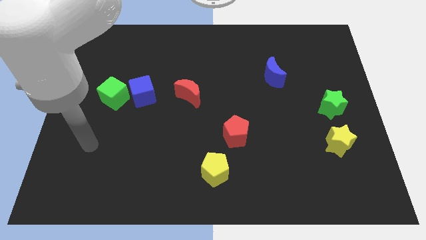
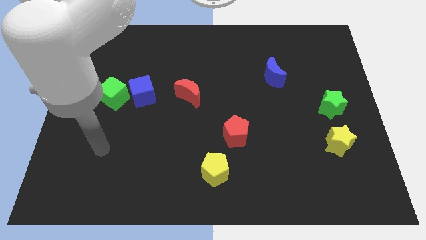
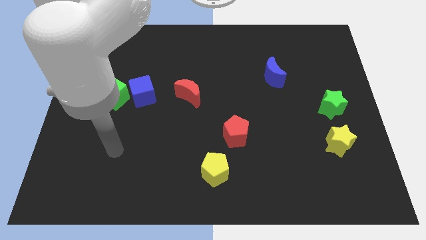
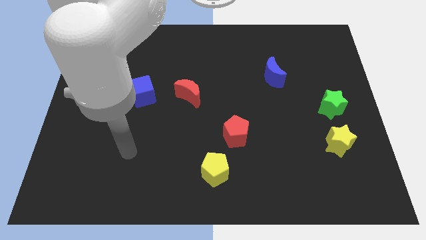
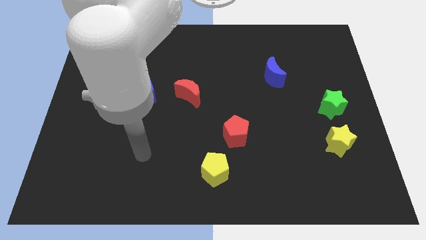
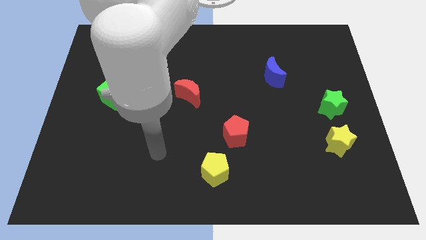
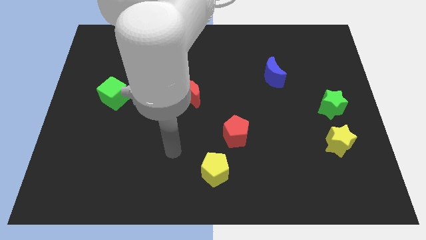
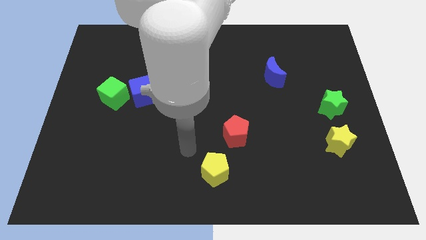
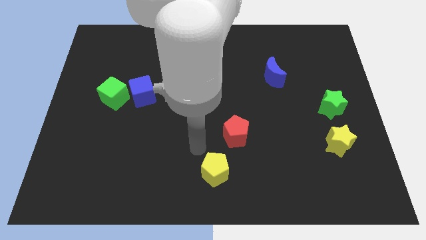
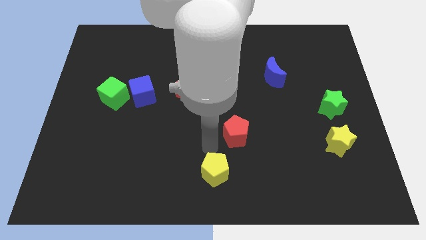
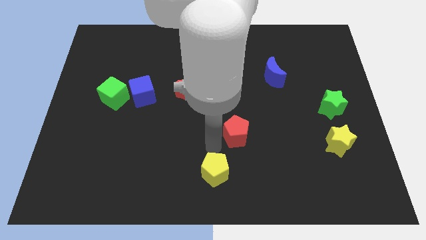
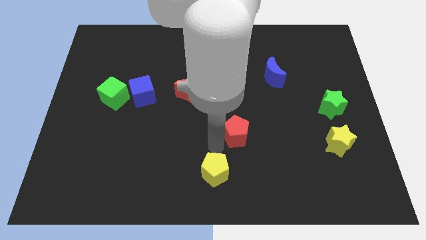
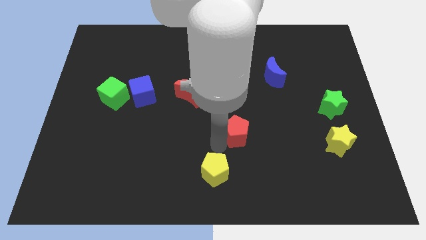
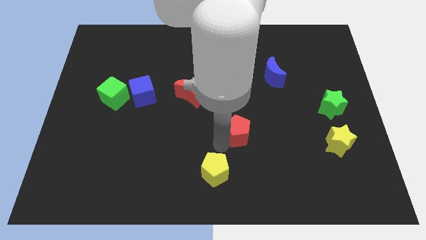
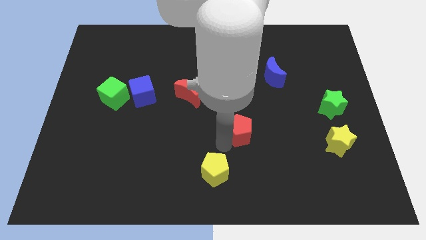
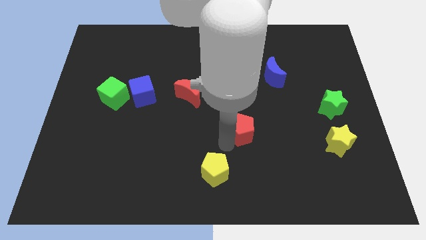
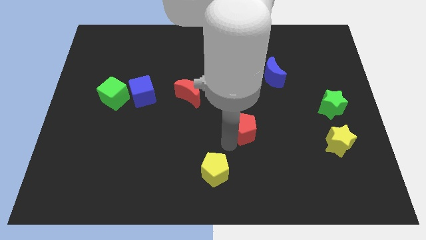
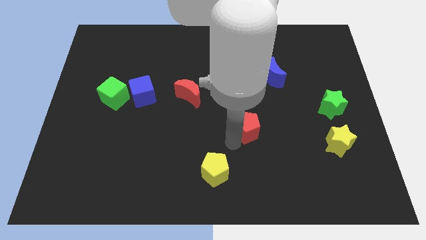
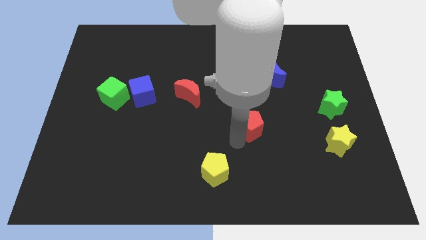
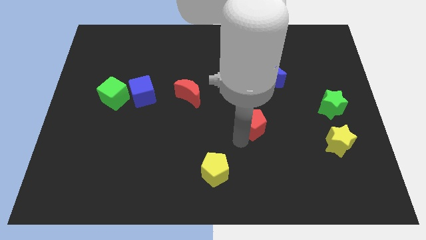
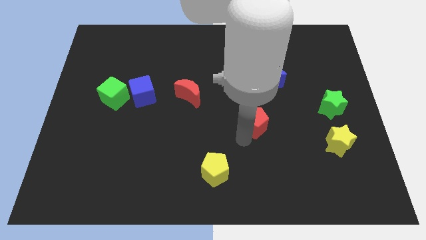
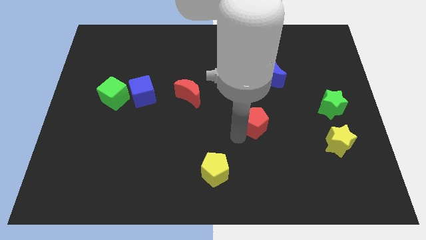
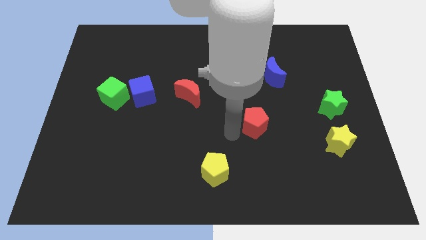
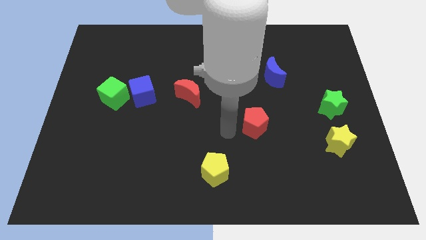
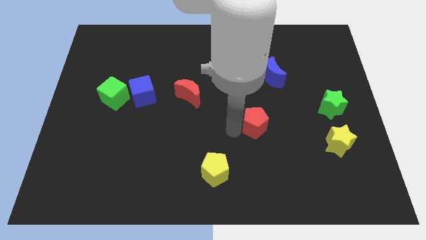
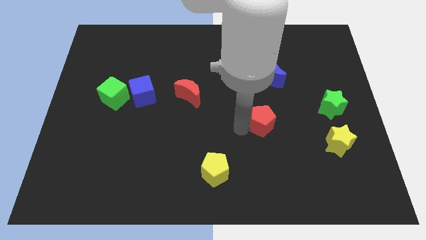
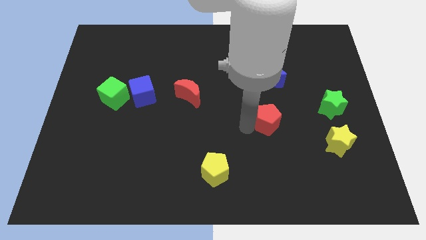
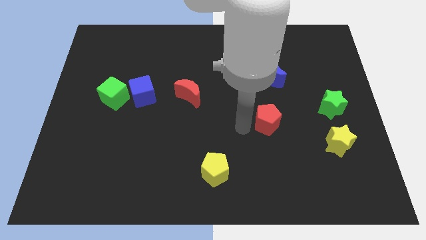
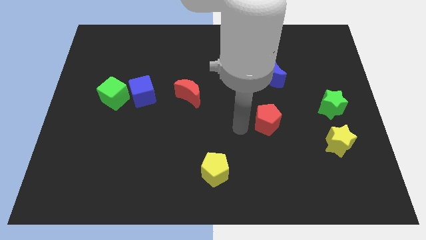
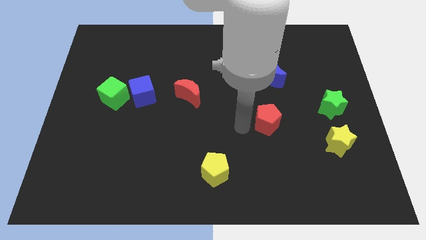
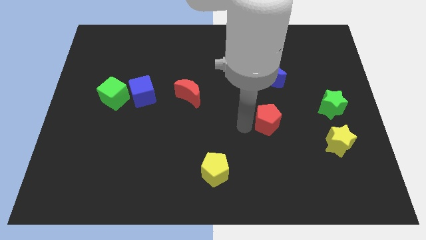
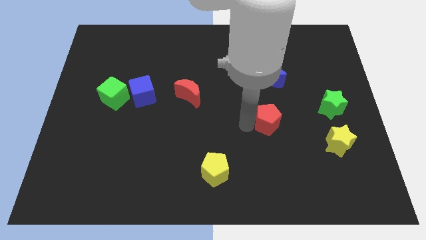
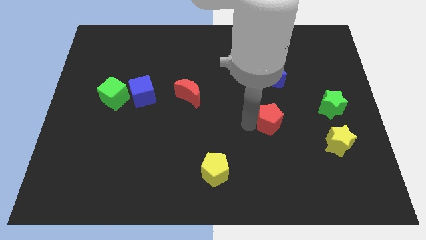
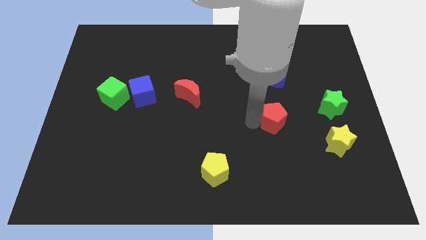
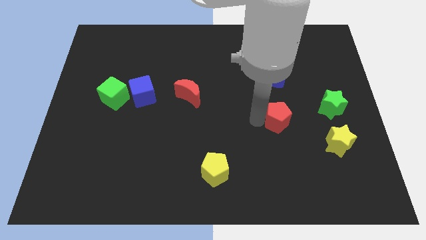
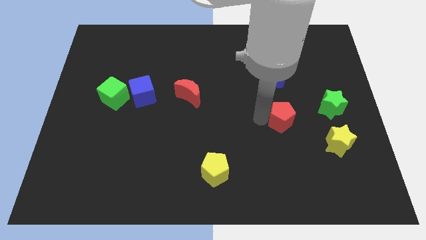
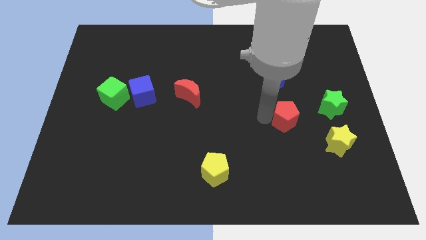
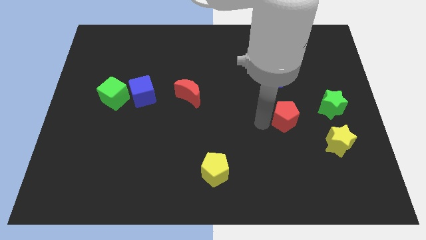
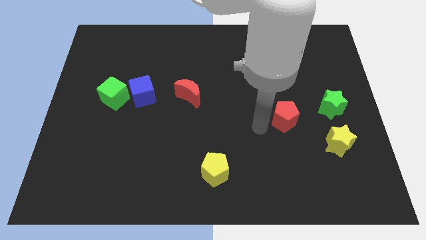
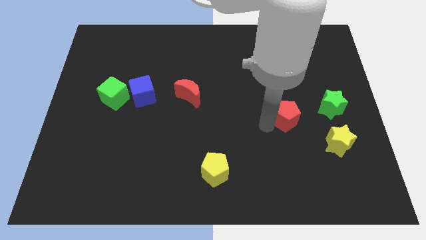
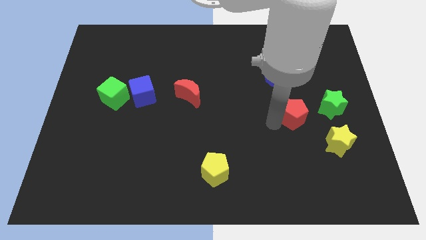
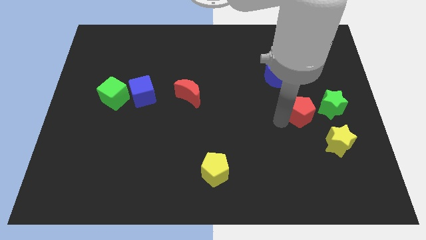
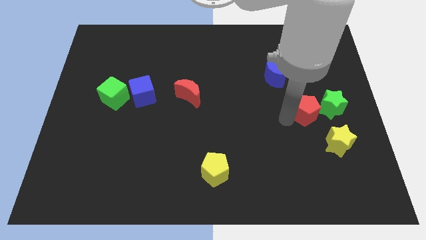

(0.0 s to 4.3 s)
move the red pentagon close to the green star

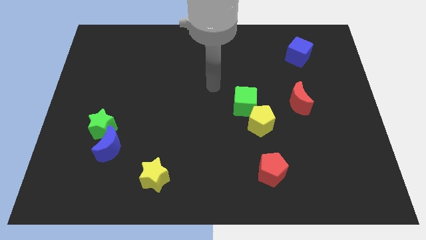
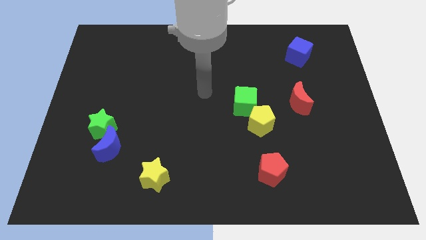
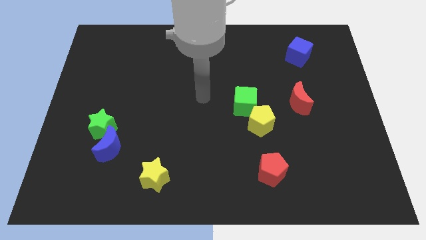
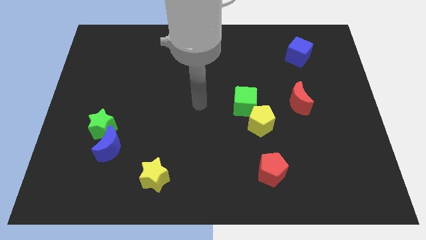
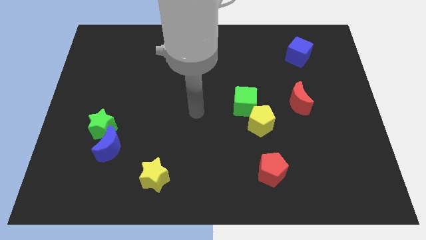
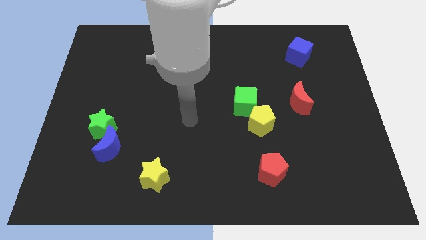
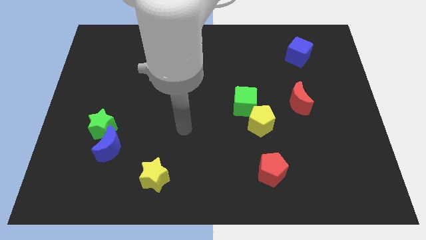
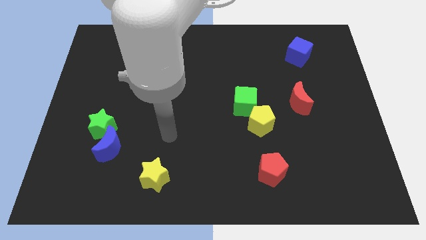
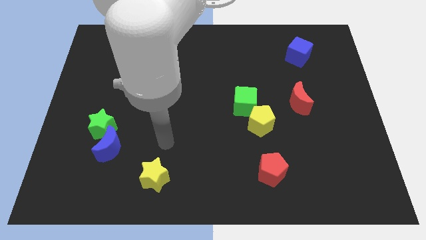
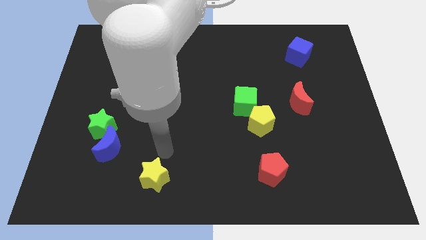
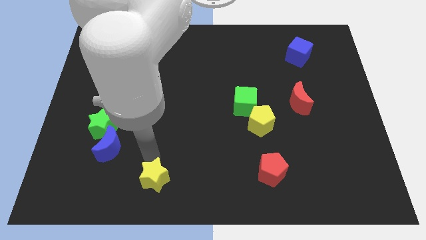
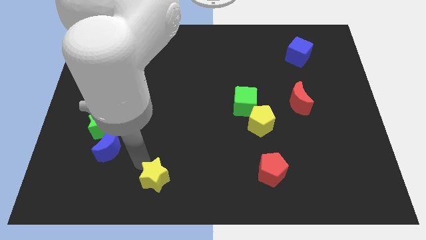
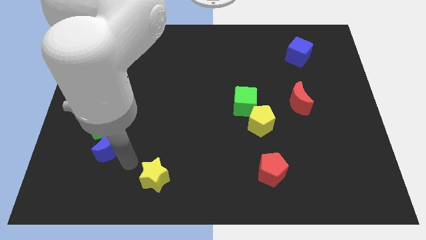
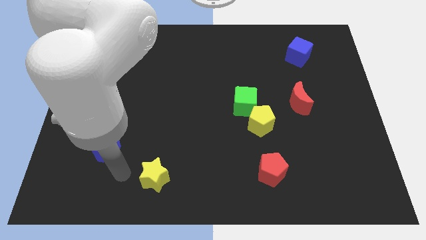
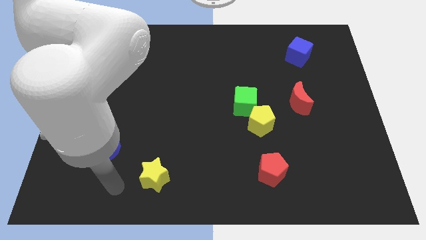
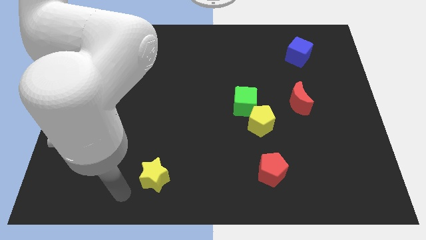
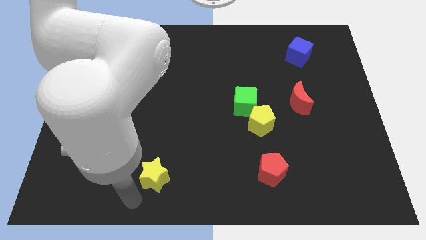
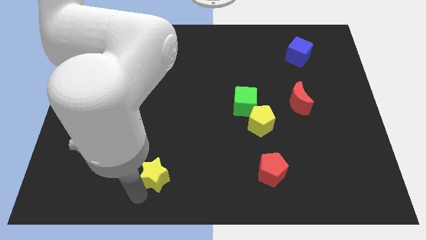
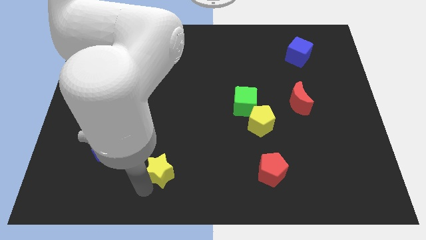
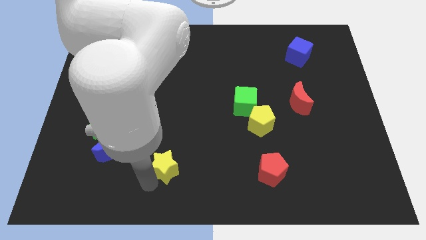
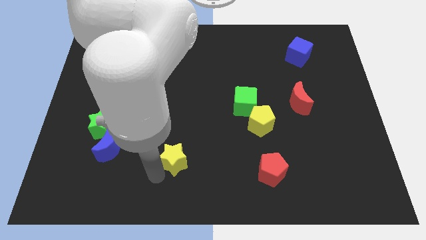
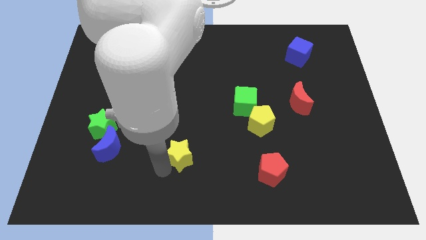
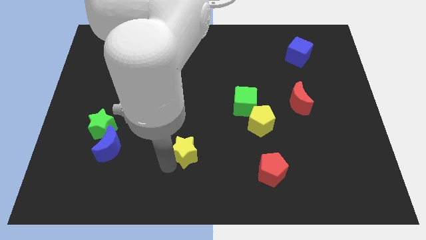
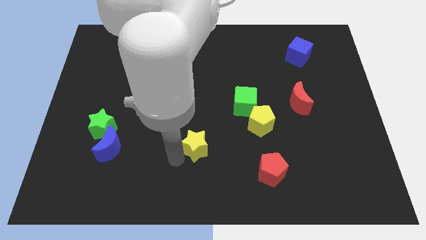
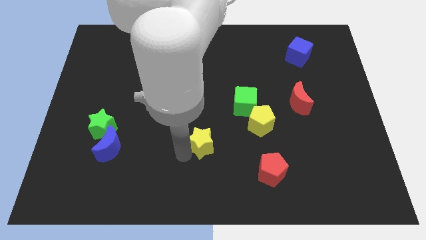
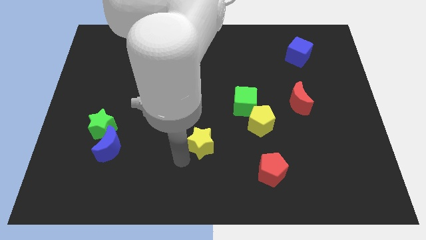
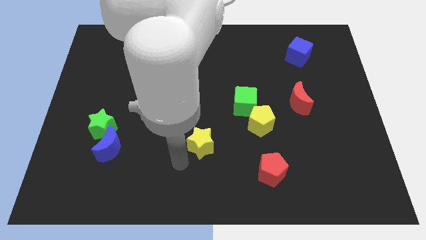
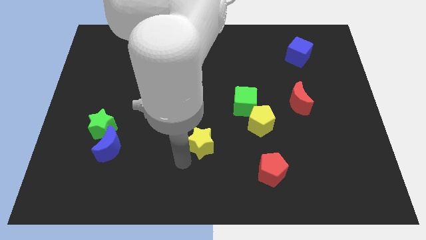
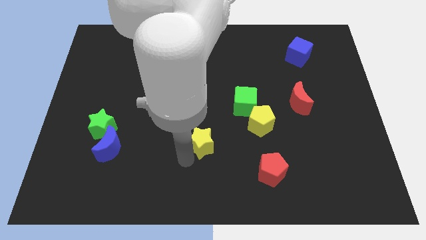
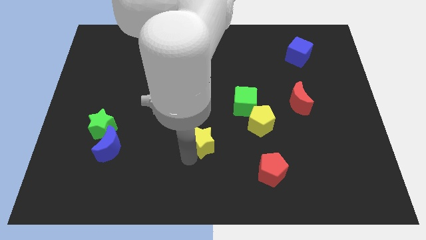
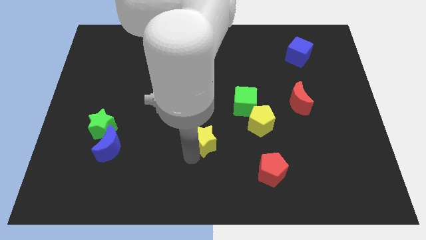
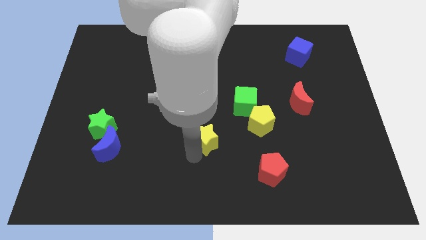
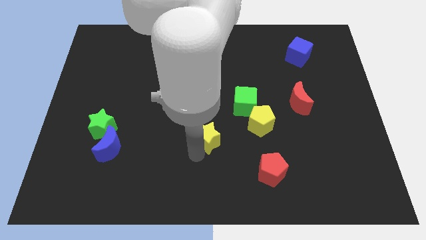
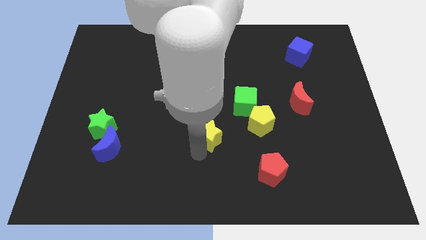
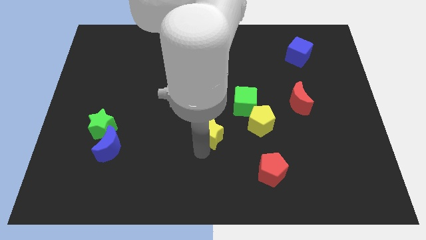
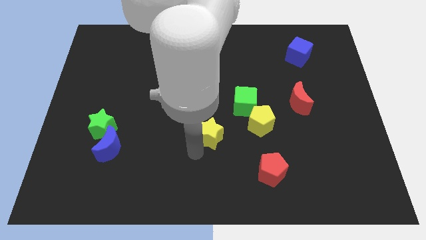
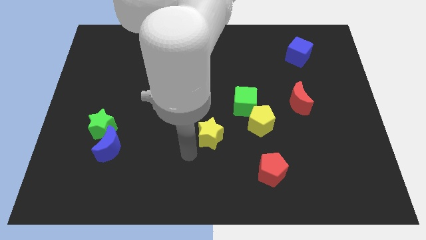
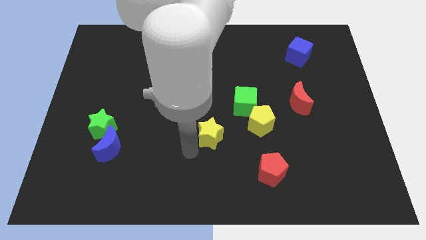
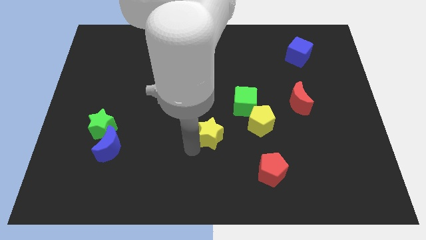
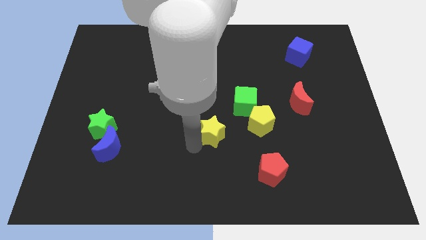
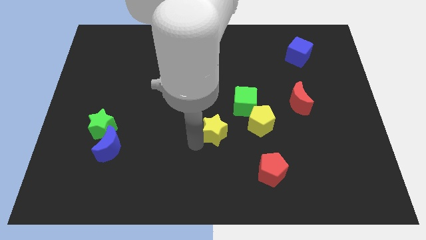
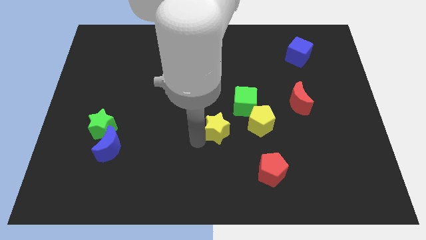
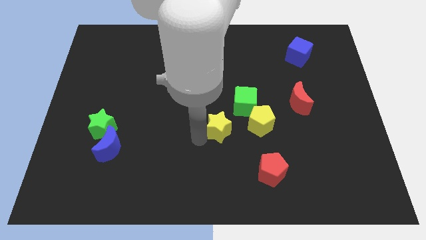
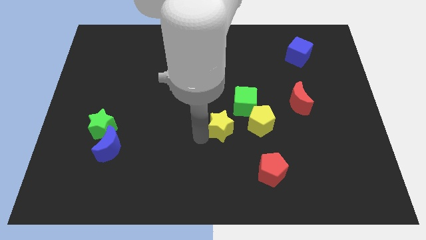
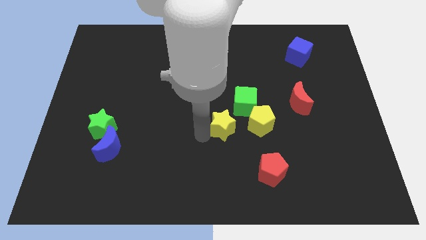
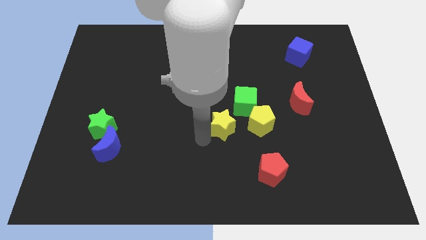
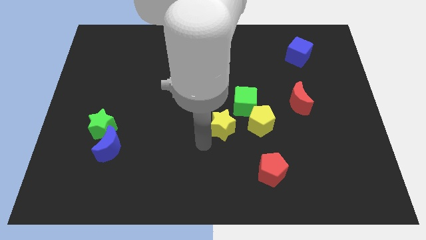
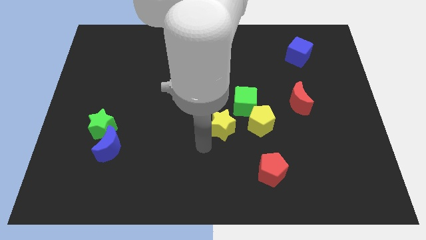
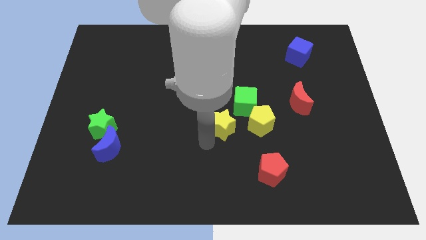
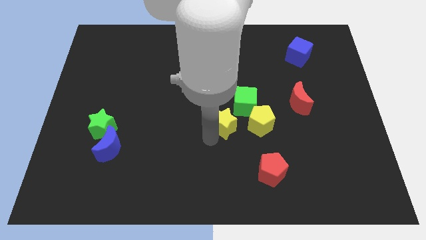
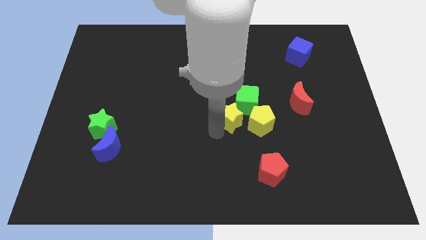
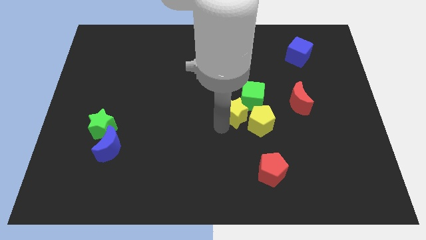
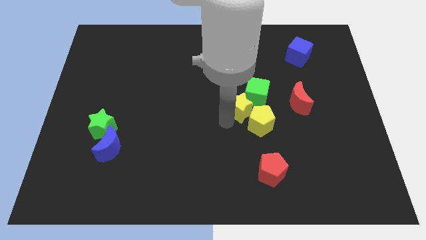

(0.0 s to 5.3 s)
push the yellow star to the green cube
